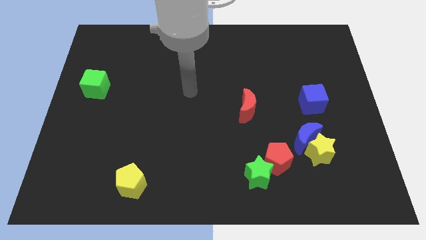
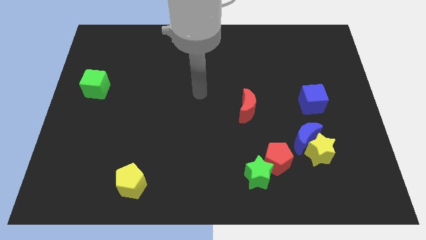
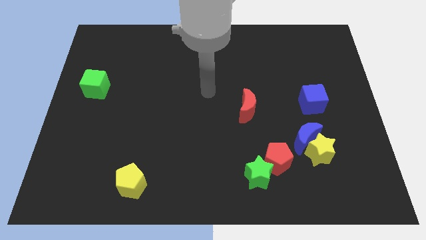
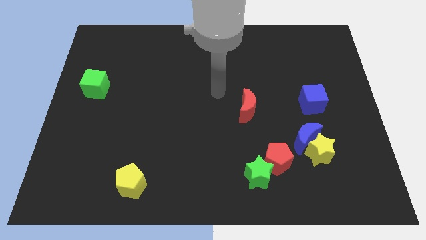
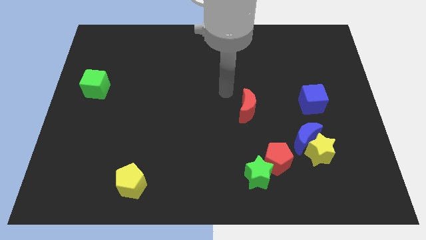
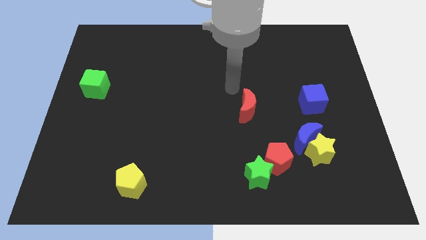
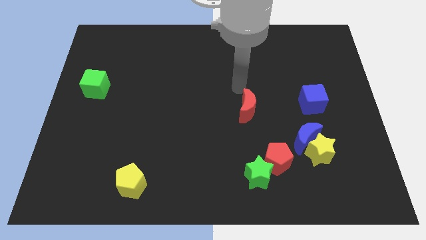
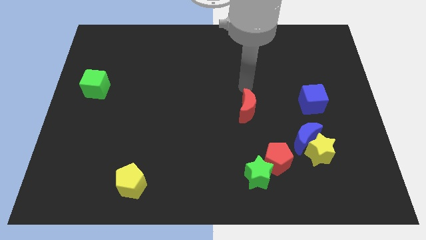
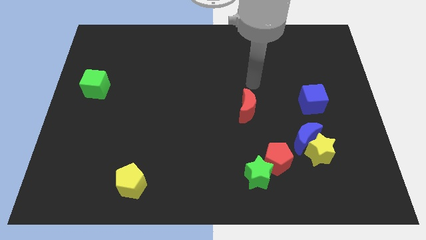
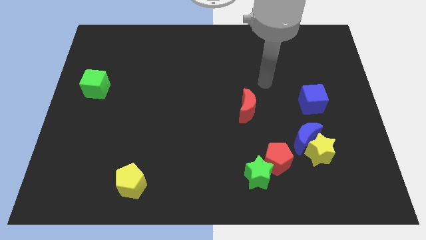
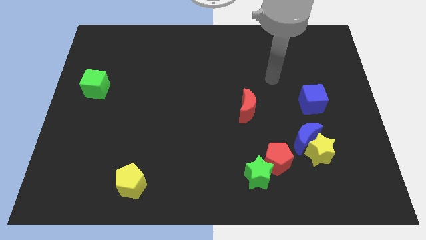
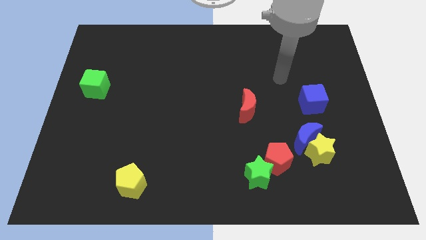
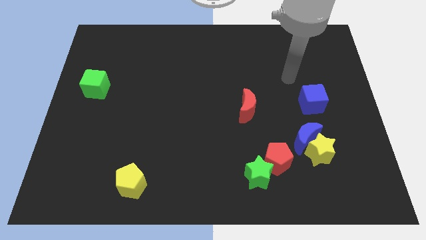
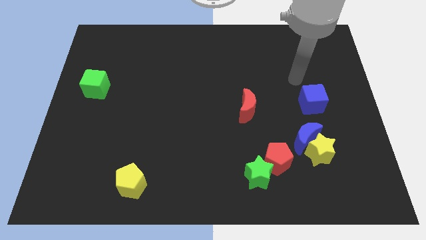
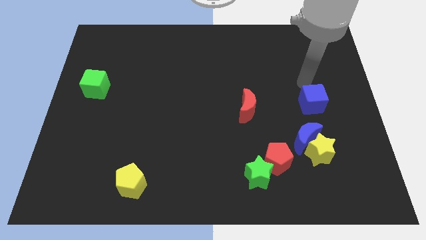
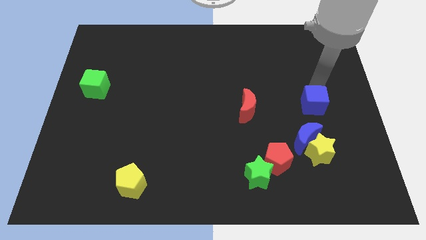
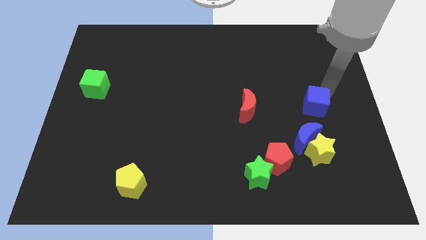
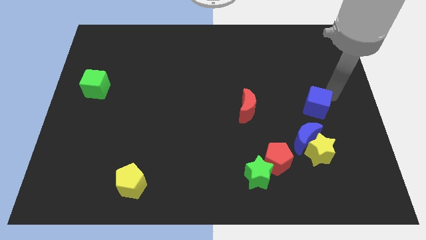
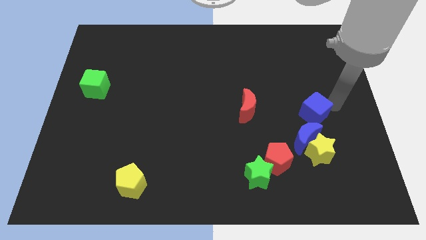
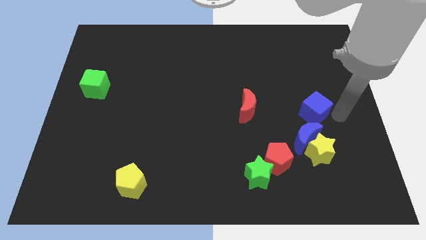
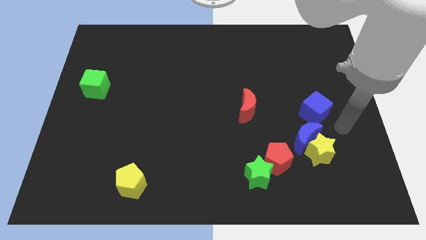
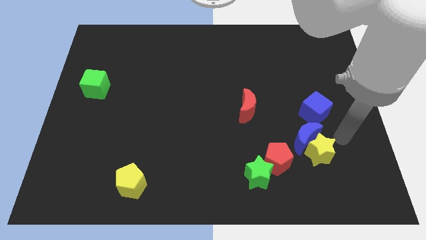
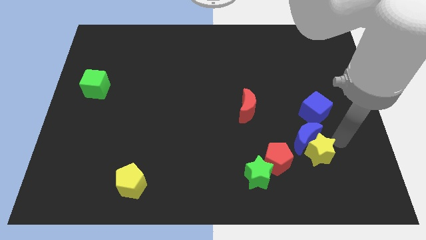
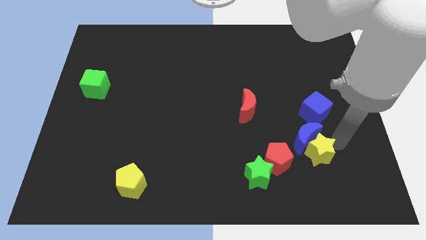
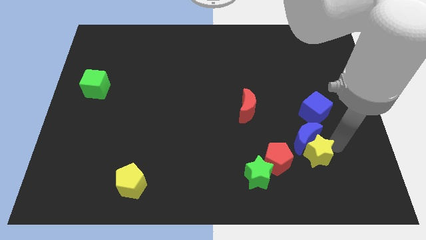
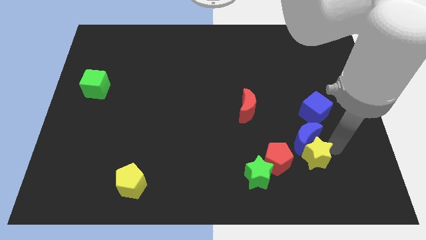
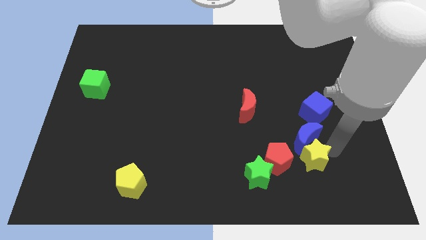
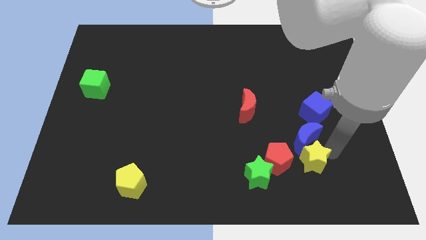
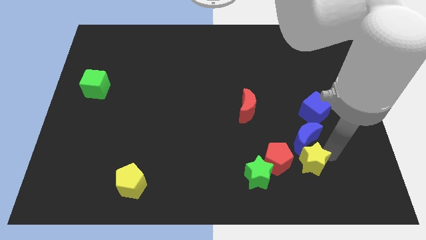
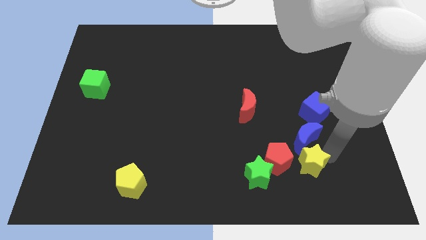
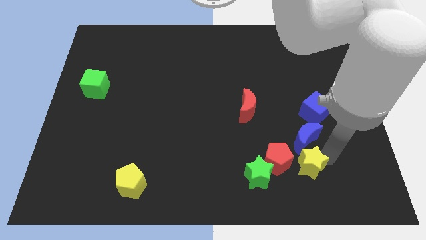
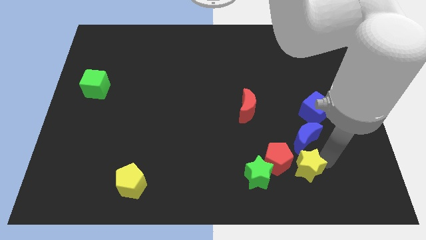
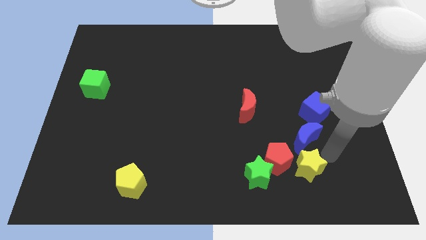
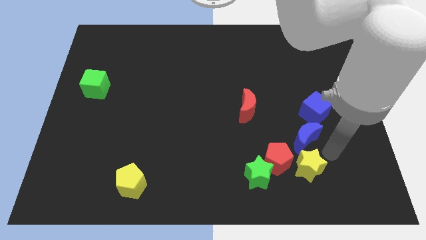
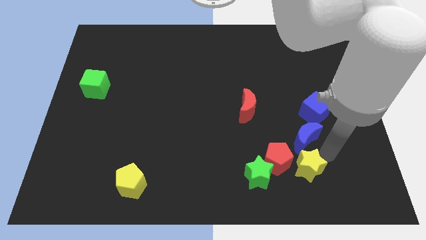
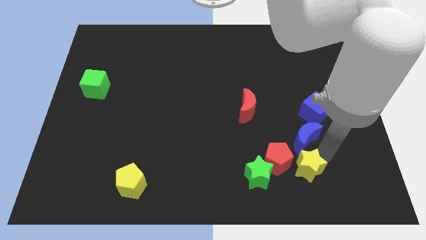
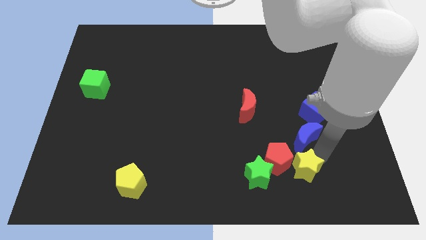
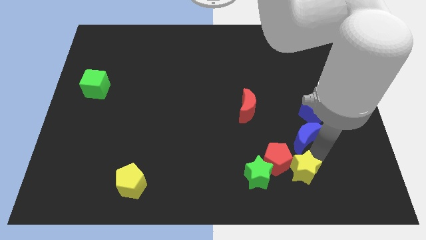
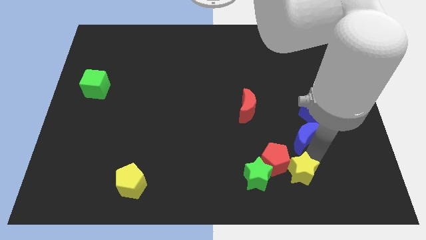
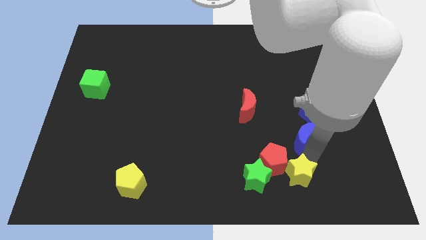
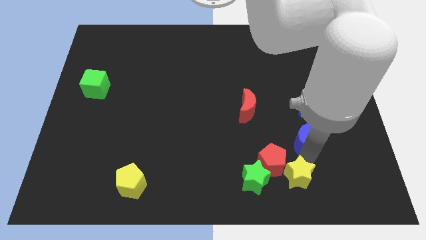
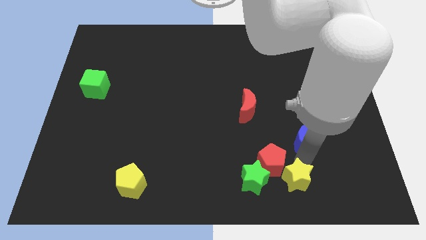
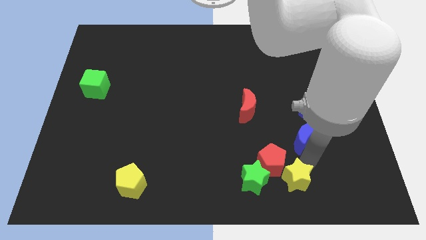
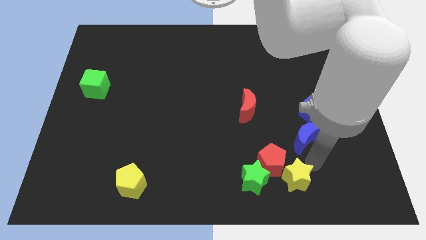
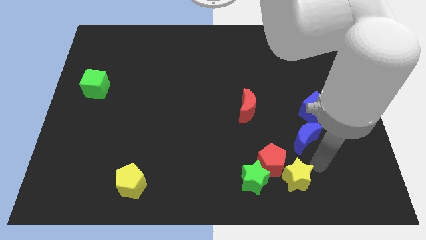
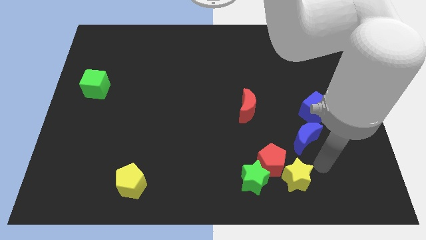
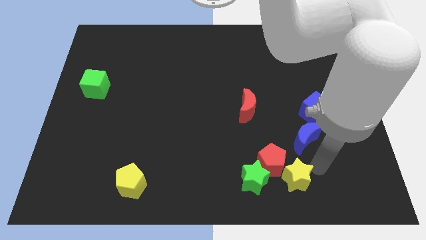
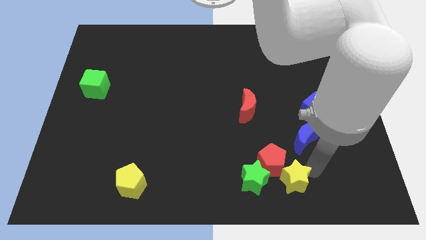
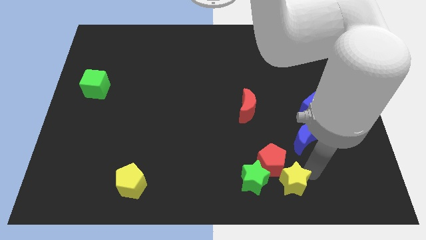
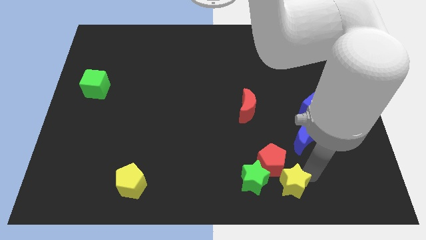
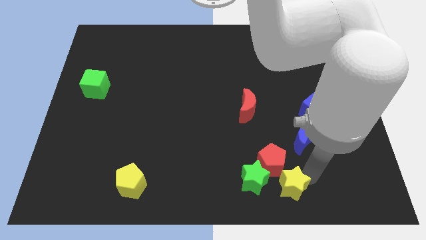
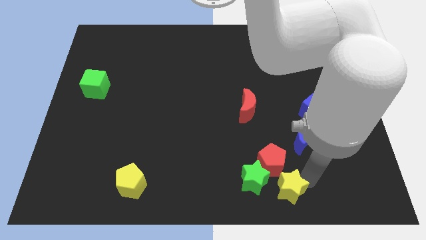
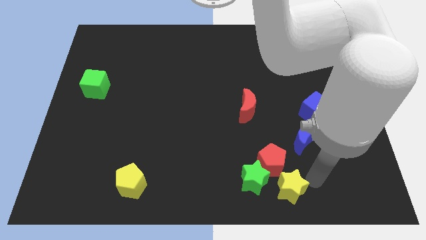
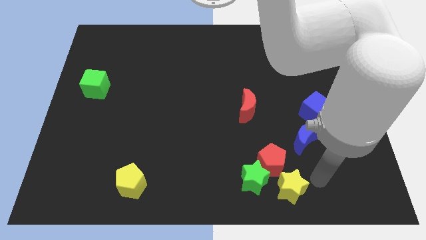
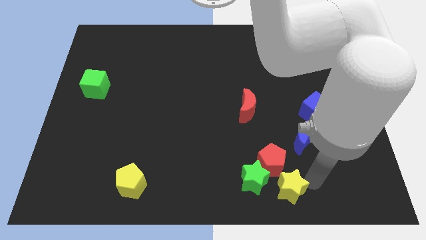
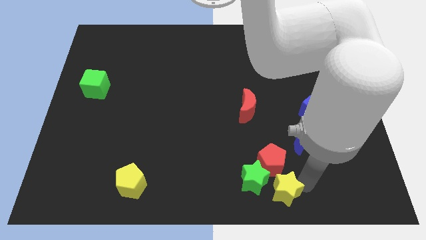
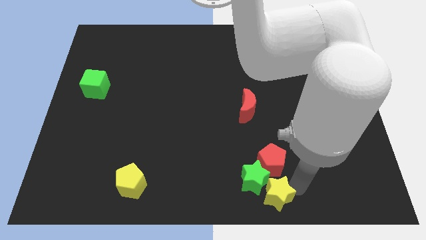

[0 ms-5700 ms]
move the yellow star to the bottom side
